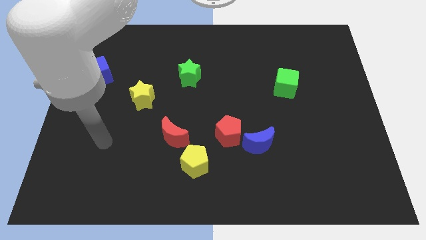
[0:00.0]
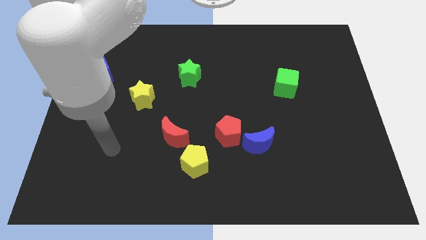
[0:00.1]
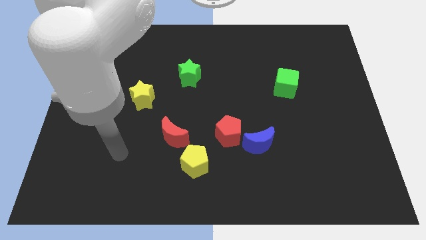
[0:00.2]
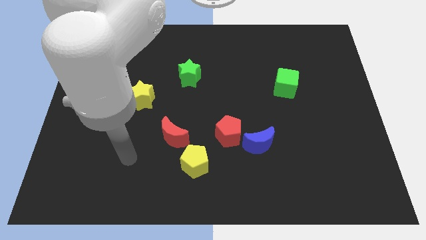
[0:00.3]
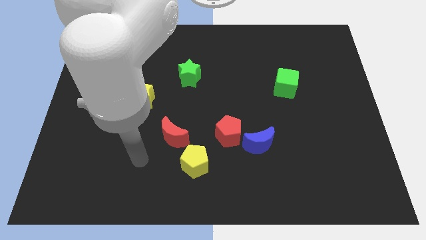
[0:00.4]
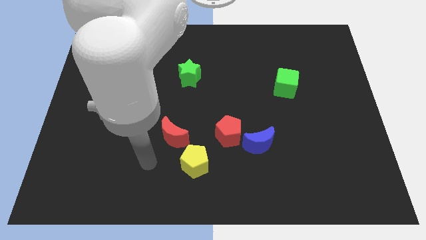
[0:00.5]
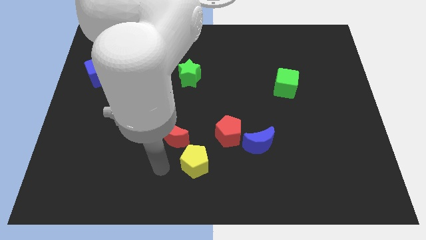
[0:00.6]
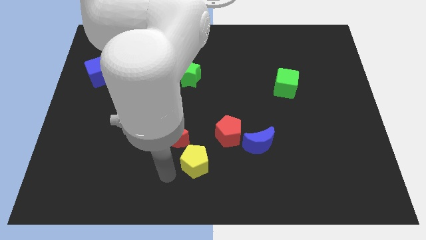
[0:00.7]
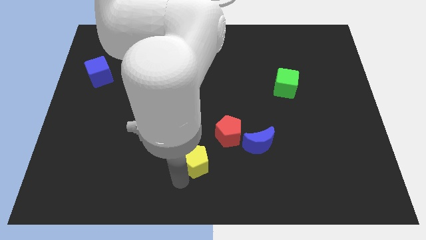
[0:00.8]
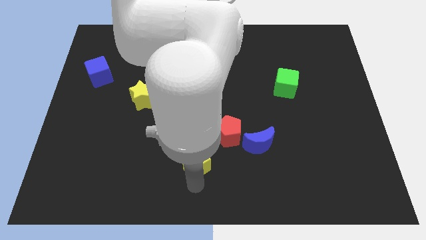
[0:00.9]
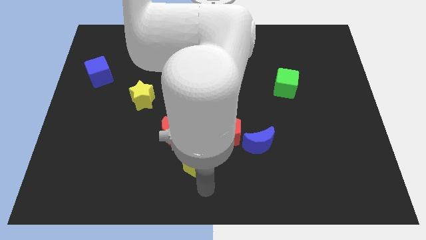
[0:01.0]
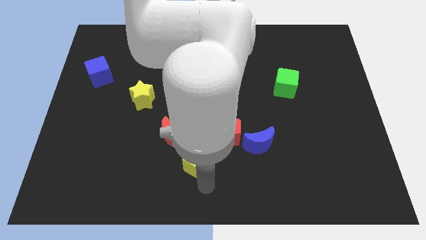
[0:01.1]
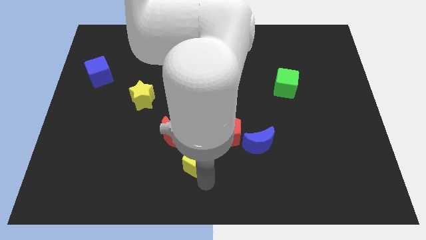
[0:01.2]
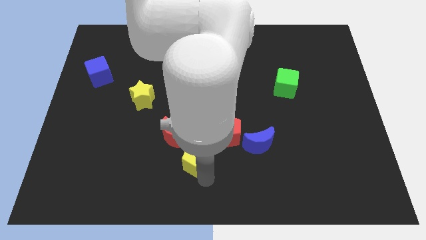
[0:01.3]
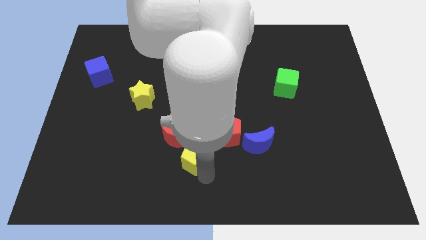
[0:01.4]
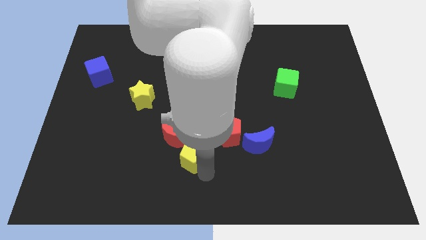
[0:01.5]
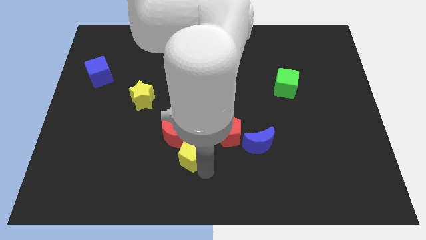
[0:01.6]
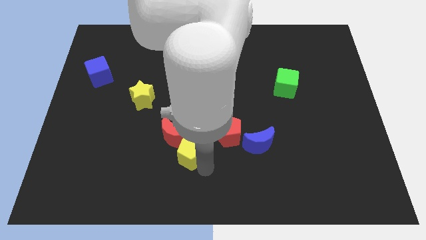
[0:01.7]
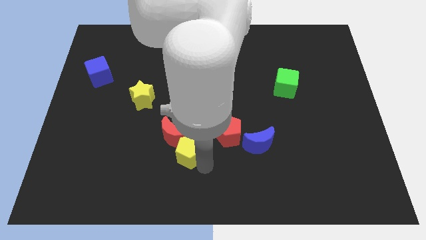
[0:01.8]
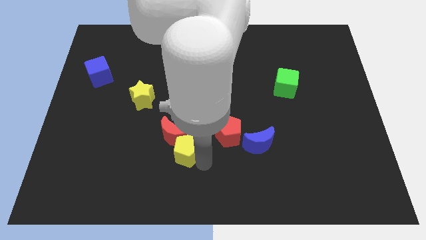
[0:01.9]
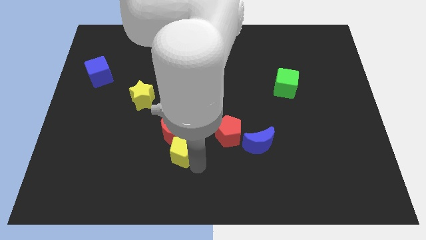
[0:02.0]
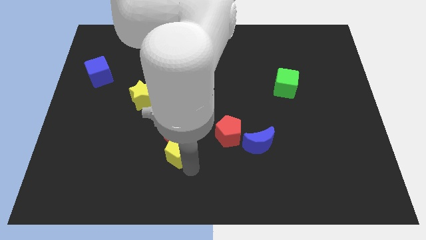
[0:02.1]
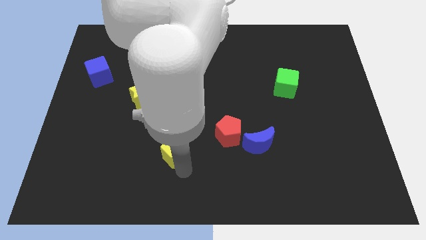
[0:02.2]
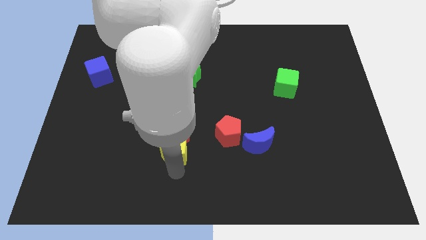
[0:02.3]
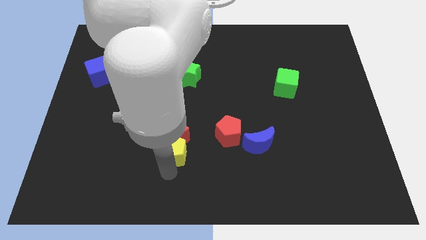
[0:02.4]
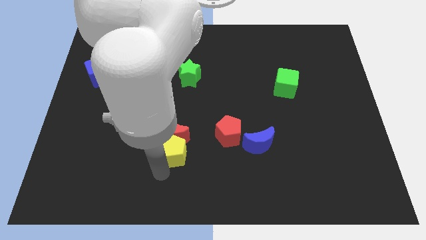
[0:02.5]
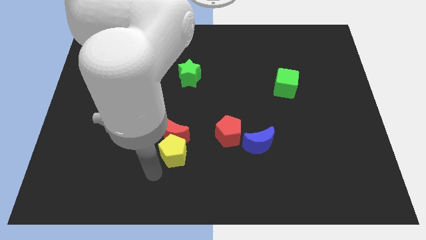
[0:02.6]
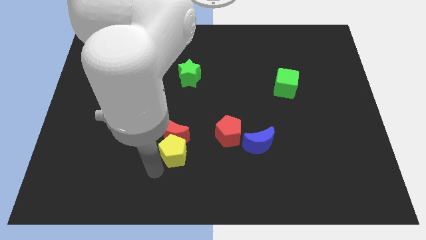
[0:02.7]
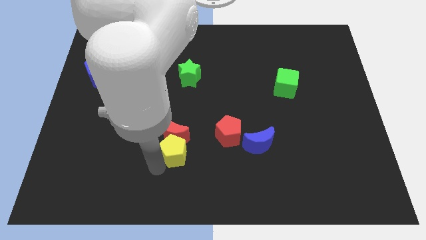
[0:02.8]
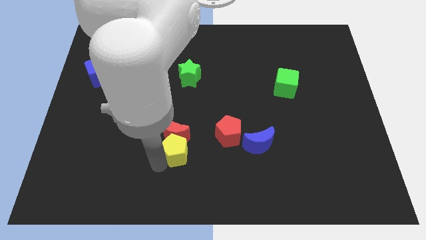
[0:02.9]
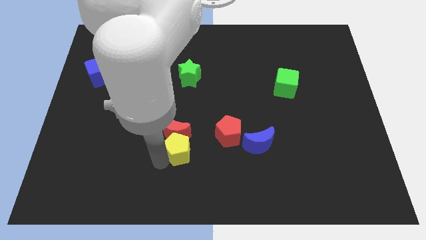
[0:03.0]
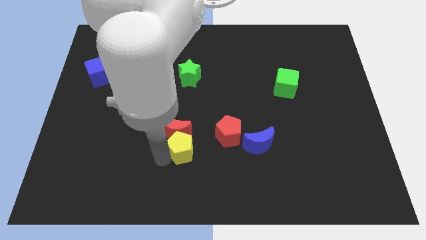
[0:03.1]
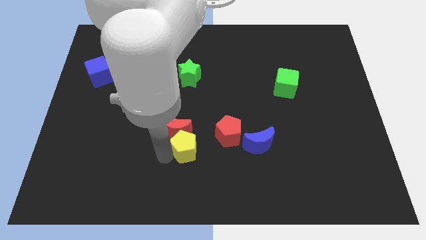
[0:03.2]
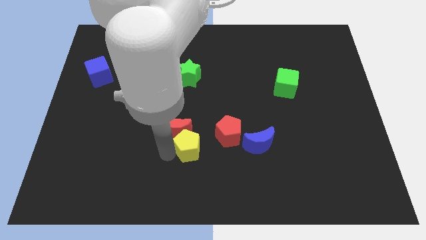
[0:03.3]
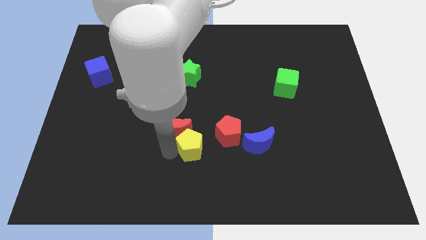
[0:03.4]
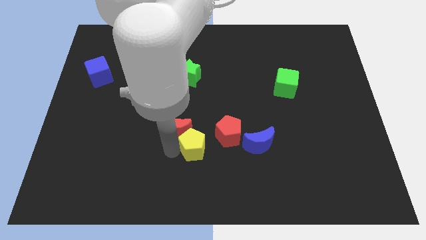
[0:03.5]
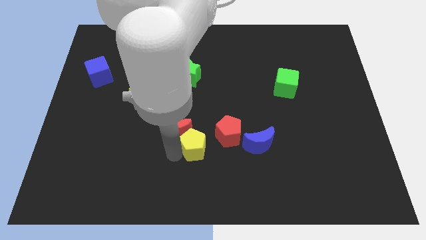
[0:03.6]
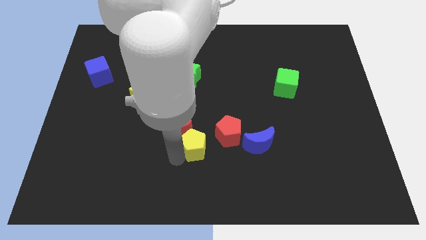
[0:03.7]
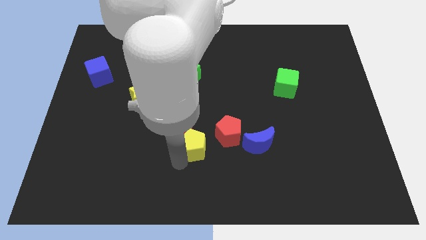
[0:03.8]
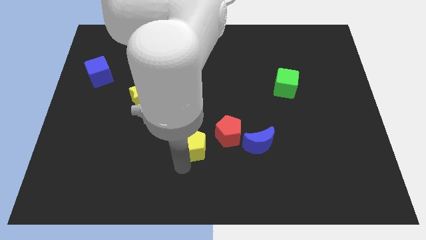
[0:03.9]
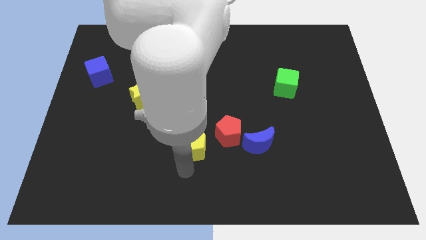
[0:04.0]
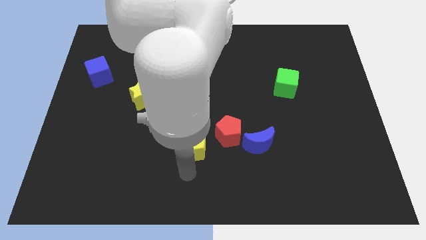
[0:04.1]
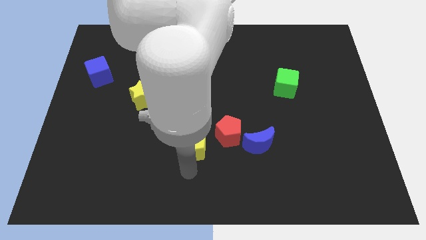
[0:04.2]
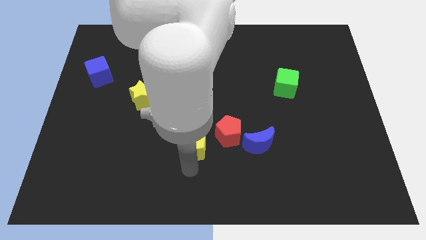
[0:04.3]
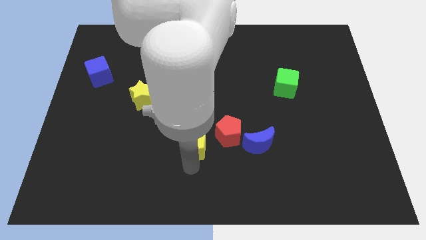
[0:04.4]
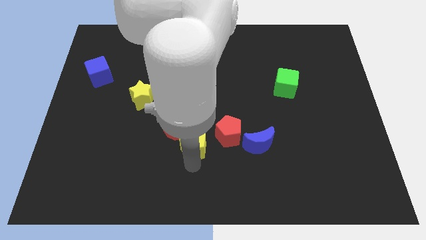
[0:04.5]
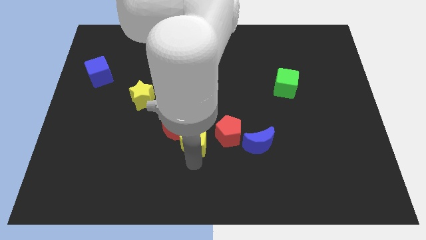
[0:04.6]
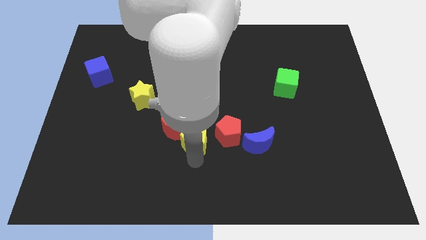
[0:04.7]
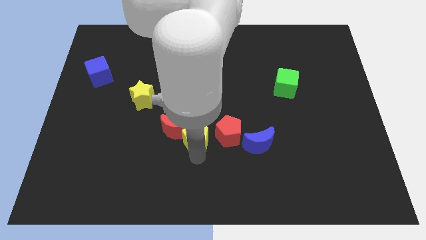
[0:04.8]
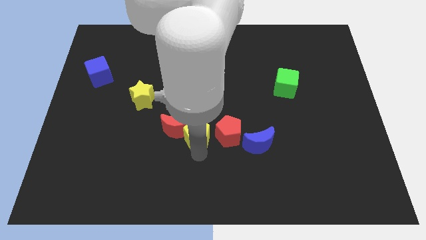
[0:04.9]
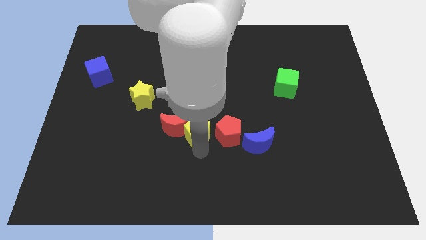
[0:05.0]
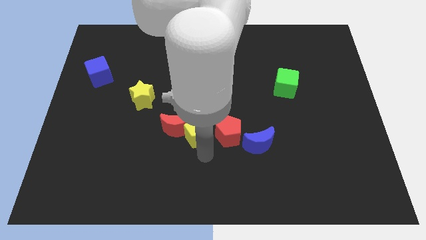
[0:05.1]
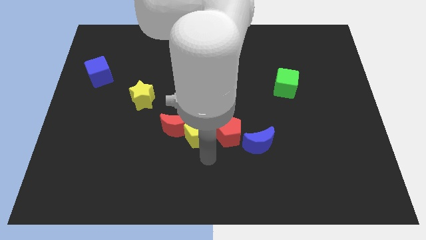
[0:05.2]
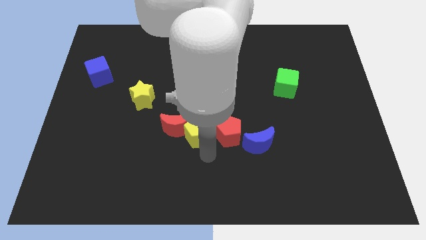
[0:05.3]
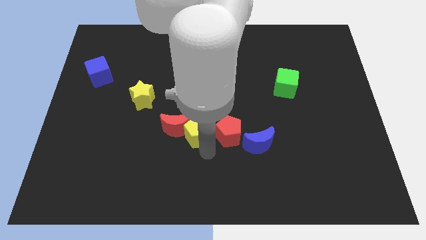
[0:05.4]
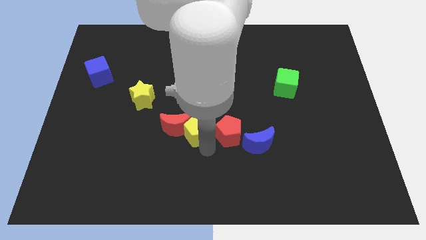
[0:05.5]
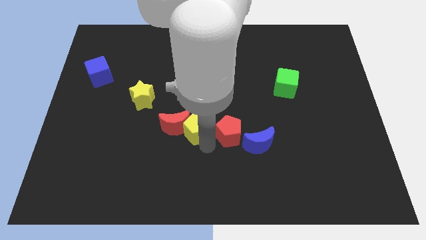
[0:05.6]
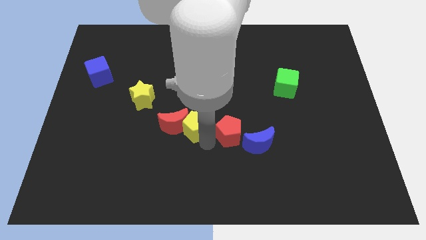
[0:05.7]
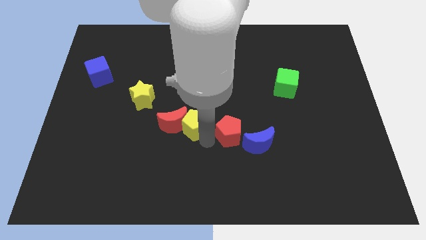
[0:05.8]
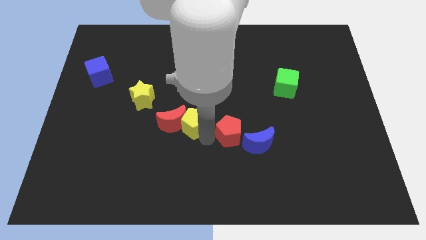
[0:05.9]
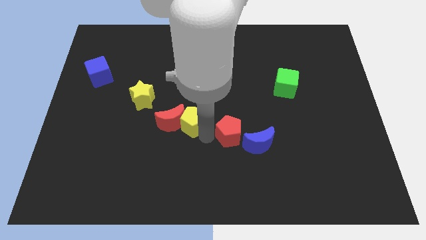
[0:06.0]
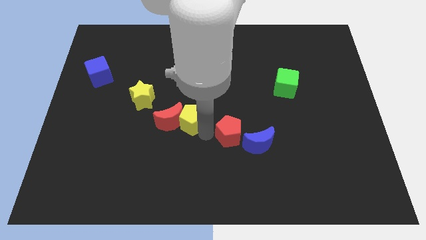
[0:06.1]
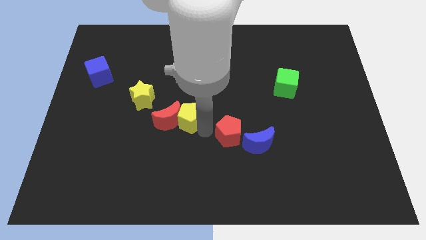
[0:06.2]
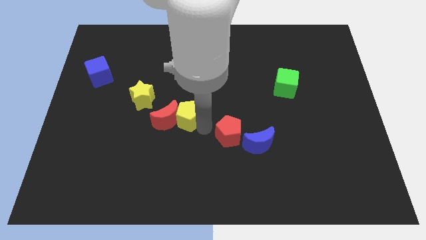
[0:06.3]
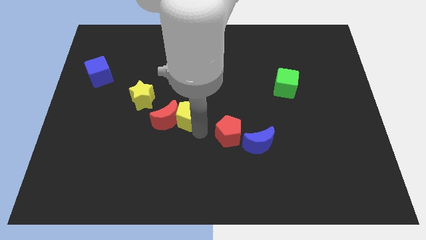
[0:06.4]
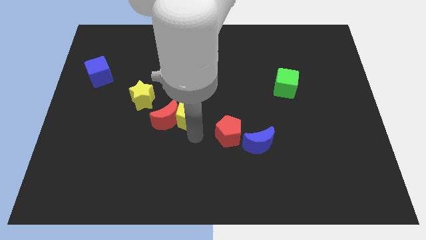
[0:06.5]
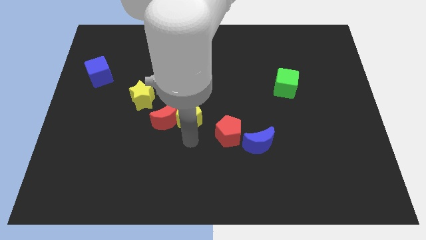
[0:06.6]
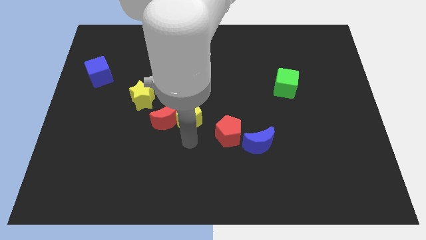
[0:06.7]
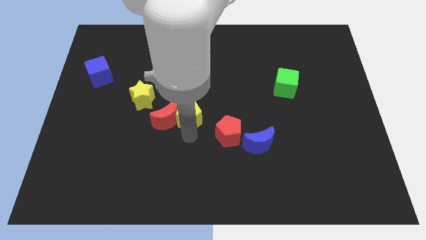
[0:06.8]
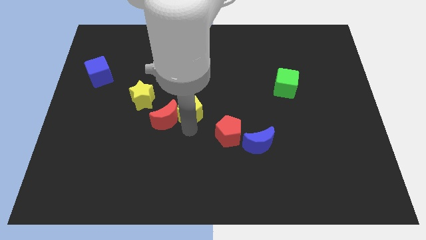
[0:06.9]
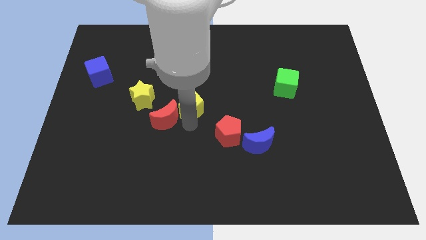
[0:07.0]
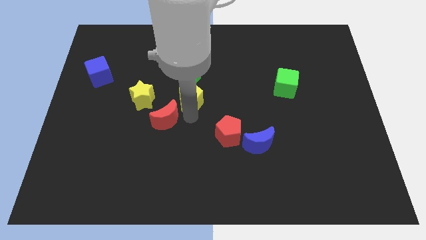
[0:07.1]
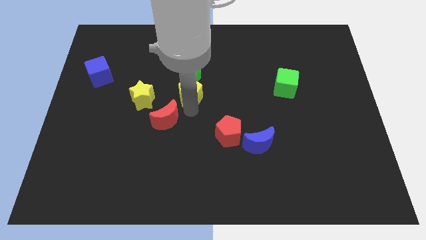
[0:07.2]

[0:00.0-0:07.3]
slide the yellow pentagon towards the green star
